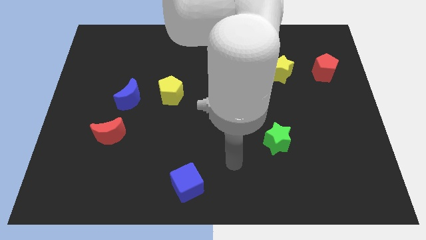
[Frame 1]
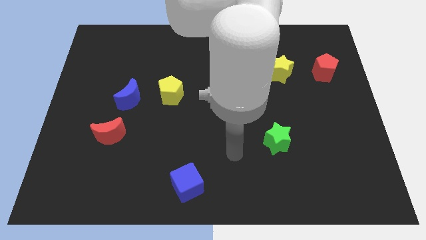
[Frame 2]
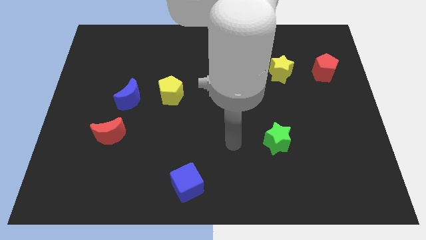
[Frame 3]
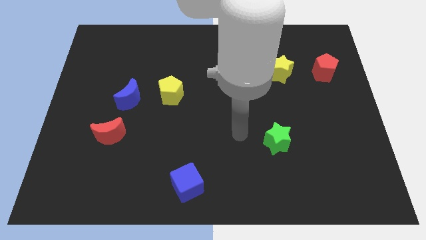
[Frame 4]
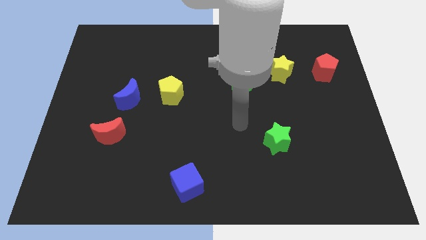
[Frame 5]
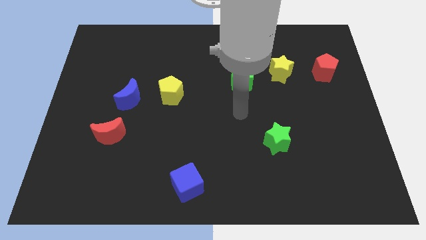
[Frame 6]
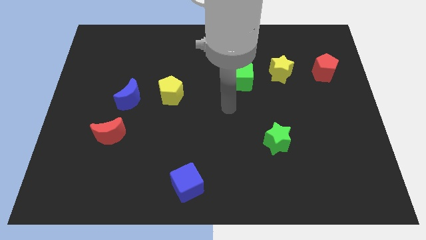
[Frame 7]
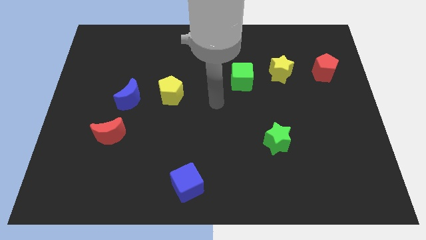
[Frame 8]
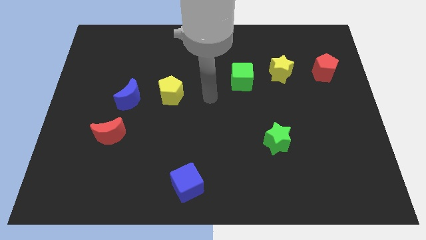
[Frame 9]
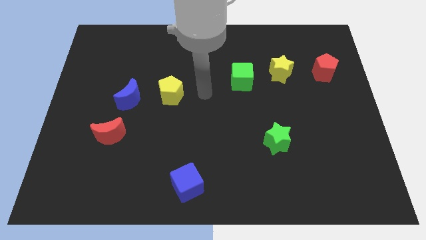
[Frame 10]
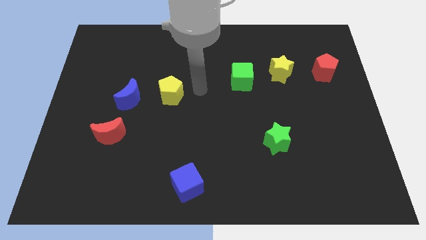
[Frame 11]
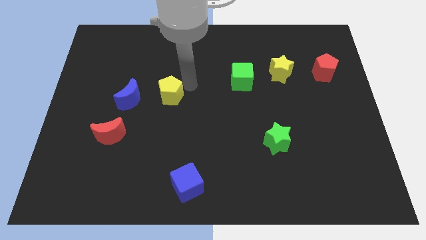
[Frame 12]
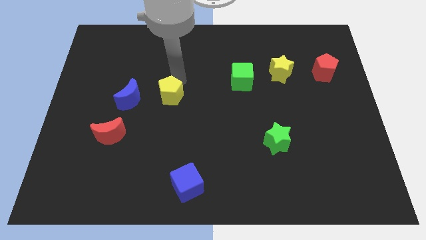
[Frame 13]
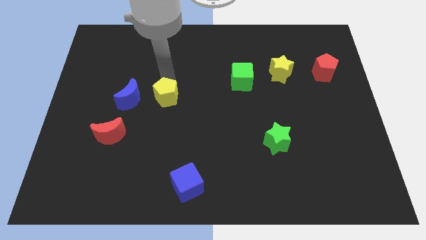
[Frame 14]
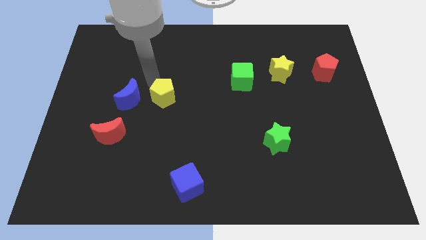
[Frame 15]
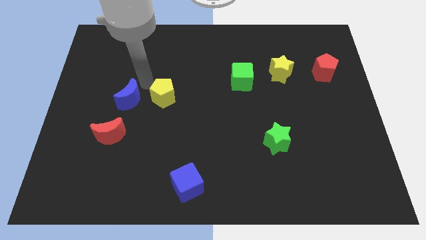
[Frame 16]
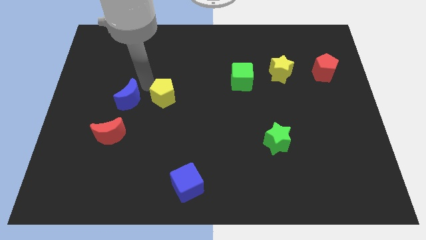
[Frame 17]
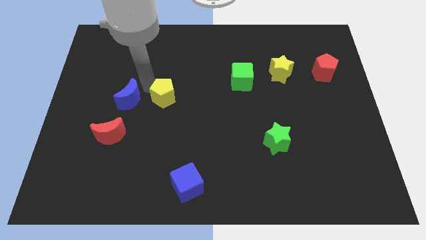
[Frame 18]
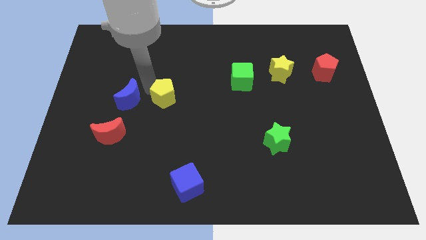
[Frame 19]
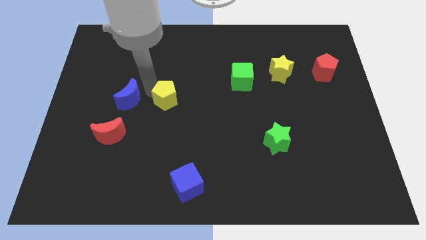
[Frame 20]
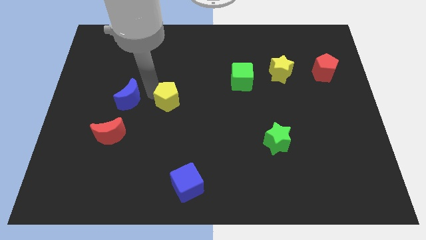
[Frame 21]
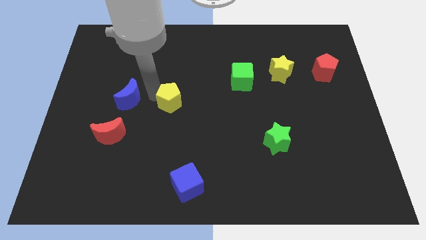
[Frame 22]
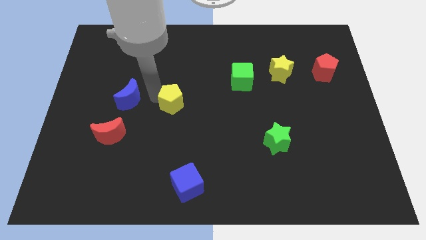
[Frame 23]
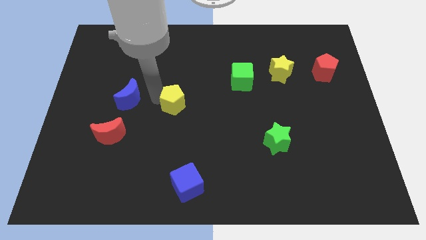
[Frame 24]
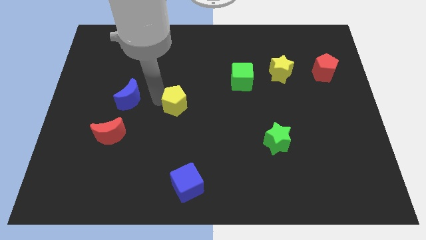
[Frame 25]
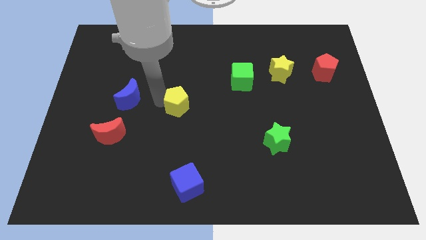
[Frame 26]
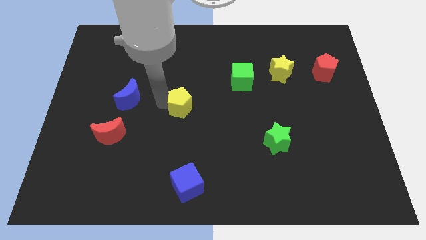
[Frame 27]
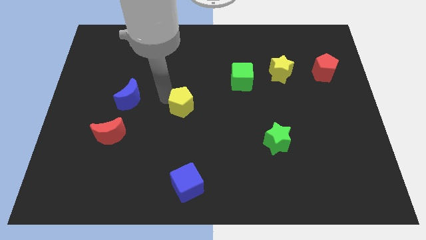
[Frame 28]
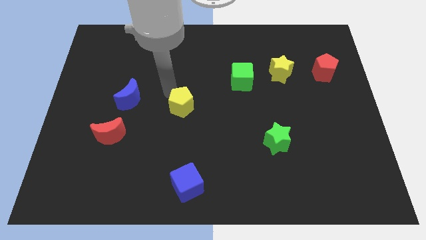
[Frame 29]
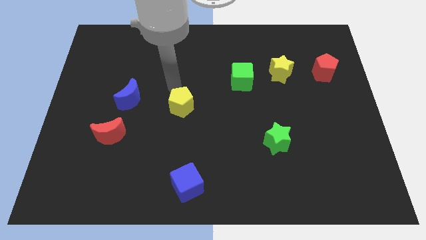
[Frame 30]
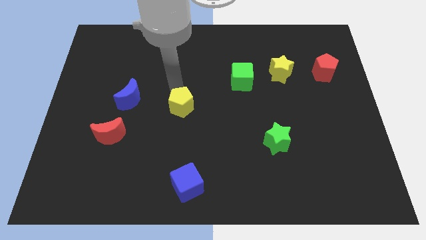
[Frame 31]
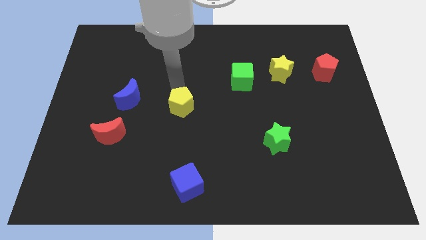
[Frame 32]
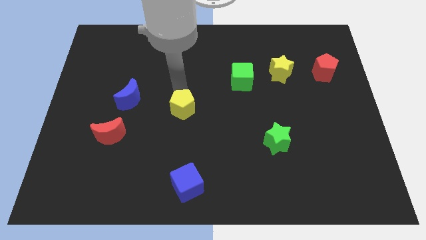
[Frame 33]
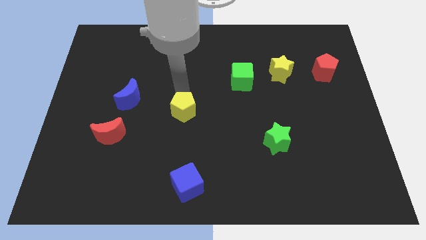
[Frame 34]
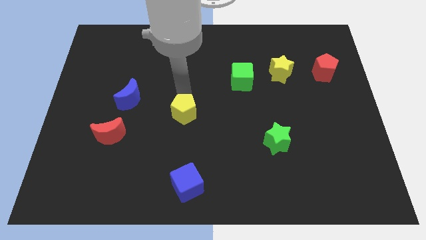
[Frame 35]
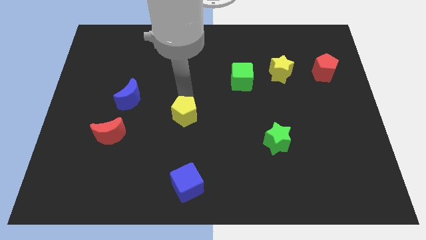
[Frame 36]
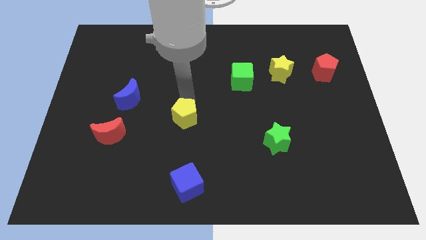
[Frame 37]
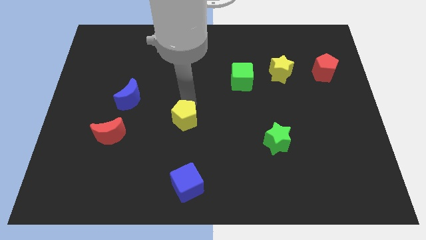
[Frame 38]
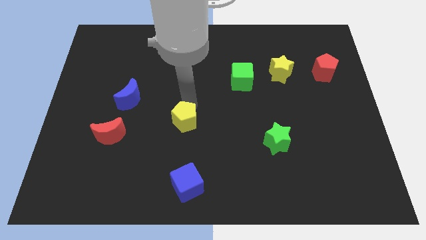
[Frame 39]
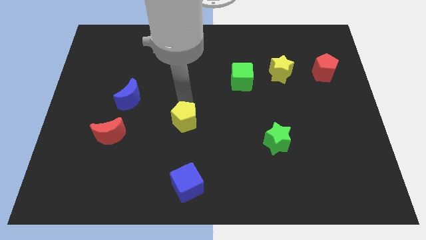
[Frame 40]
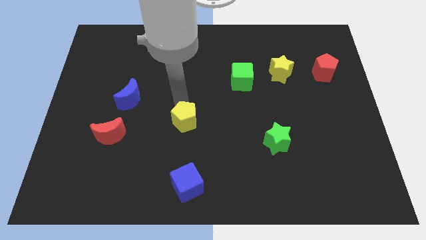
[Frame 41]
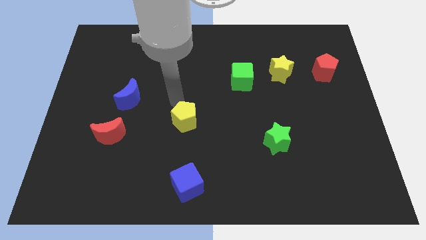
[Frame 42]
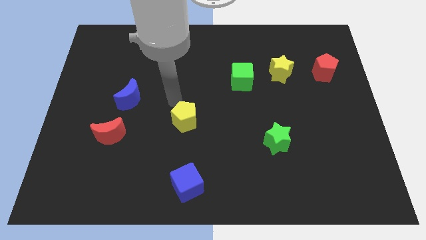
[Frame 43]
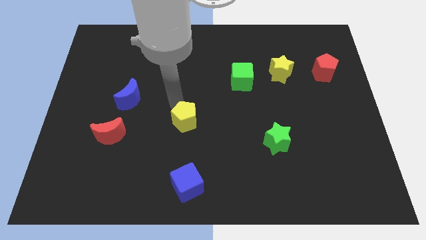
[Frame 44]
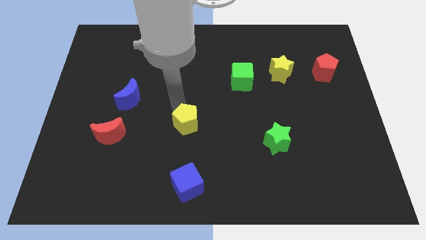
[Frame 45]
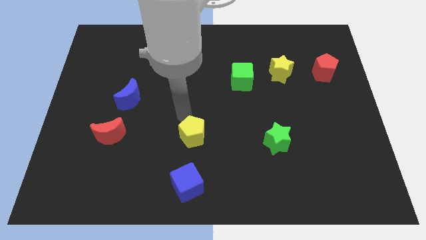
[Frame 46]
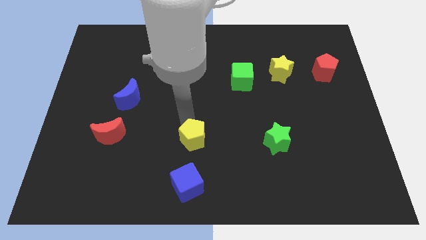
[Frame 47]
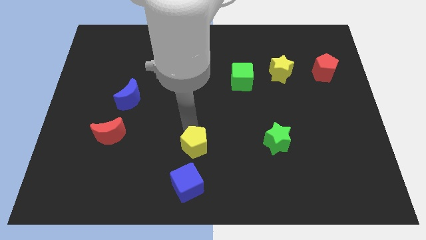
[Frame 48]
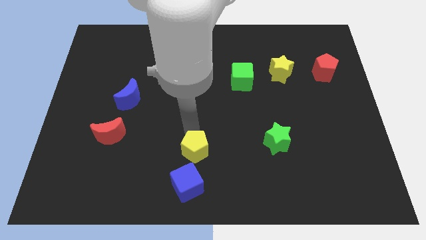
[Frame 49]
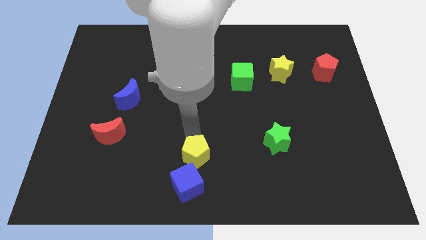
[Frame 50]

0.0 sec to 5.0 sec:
put the yellow pentagon to the bottom

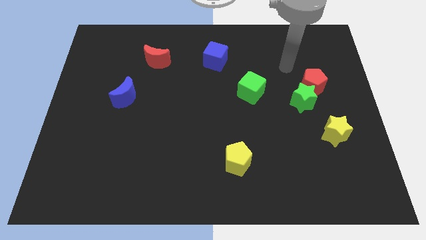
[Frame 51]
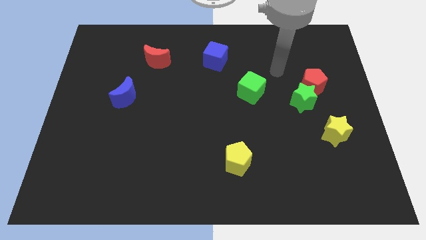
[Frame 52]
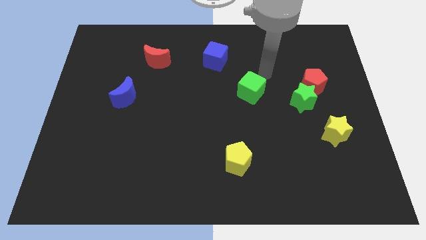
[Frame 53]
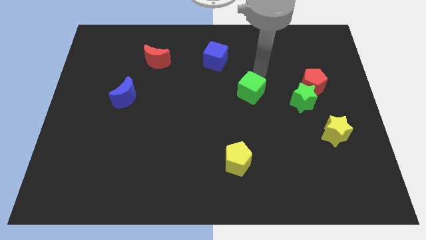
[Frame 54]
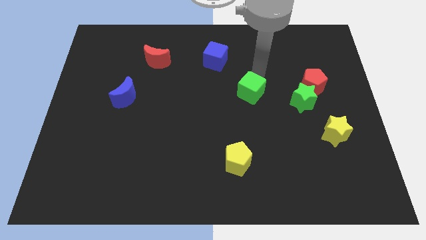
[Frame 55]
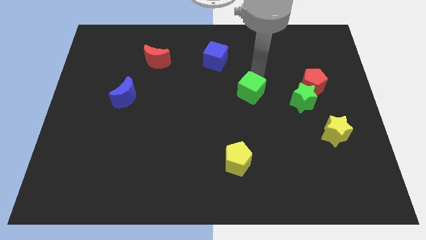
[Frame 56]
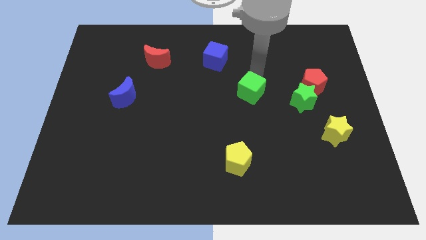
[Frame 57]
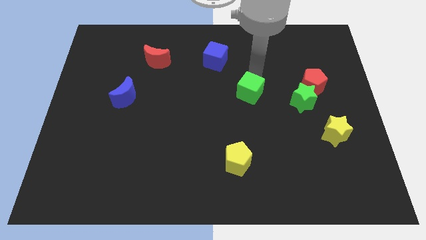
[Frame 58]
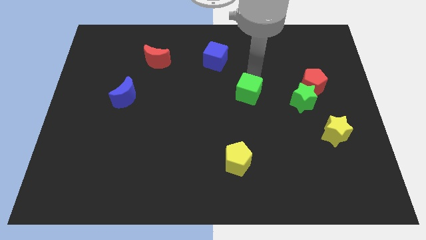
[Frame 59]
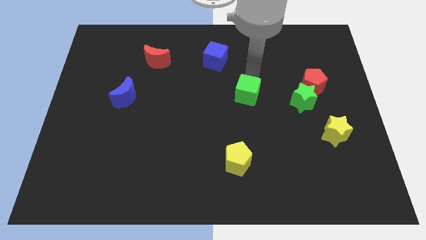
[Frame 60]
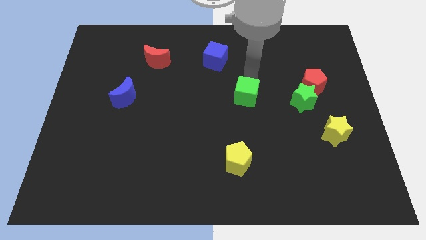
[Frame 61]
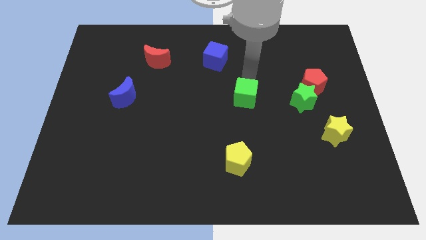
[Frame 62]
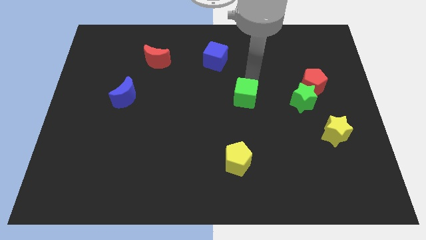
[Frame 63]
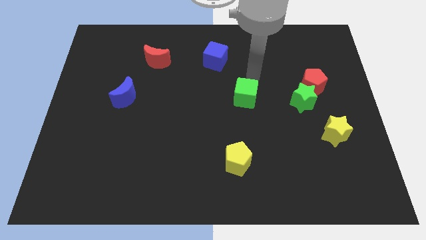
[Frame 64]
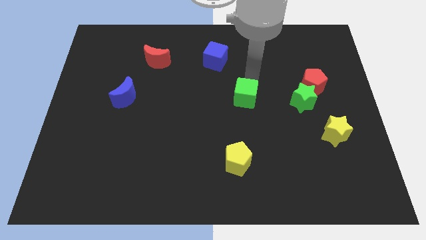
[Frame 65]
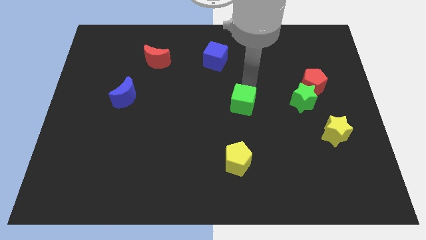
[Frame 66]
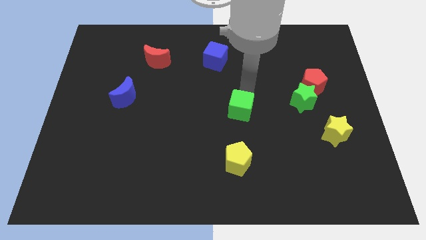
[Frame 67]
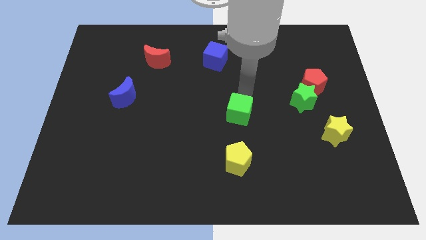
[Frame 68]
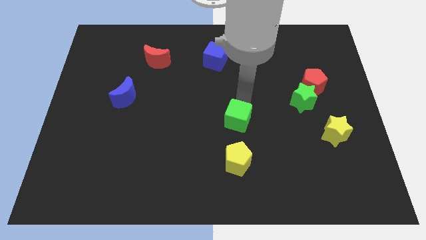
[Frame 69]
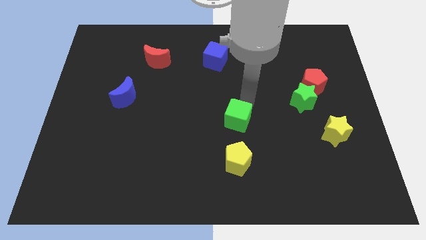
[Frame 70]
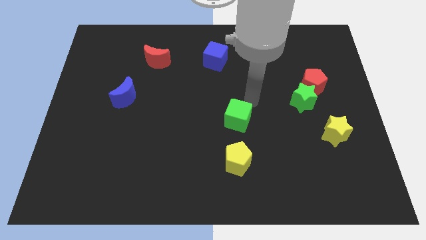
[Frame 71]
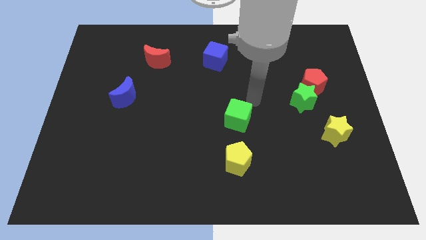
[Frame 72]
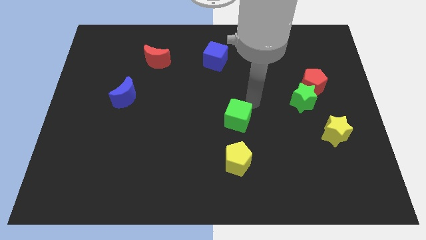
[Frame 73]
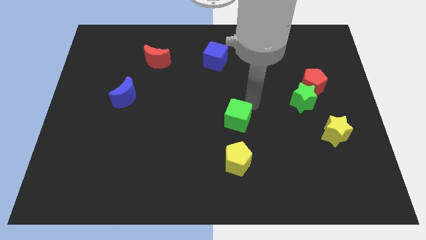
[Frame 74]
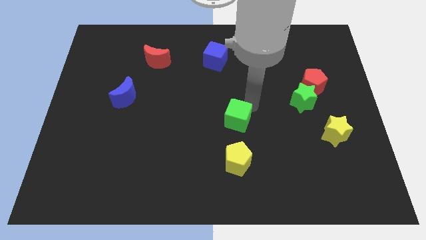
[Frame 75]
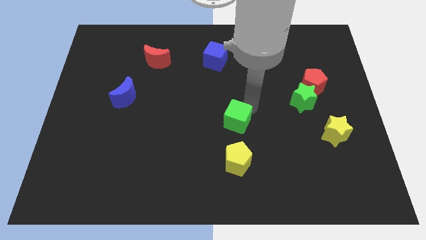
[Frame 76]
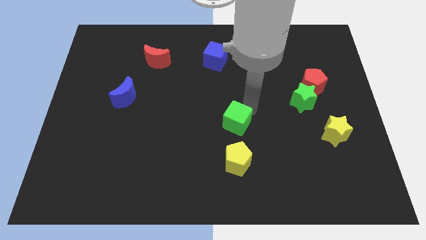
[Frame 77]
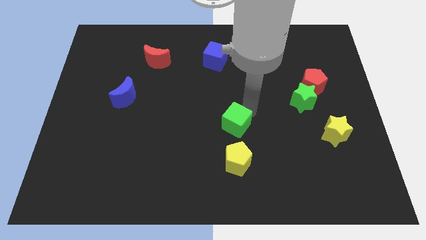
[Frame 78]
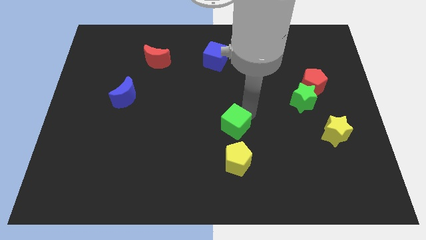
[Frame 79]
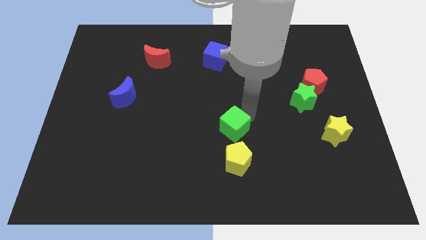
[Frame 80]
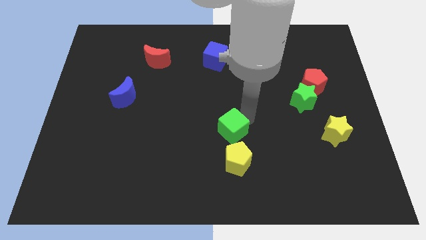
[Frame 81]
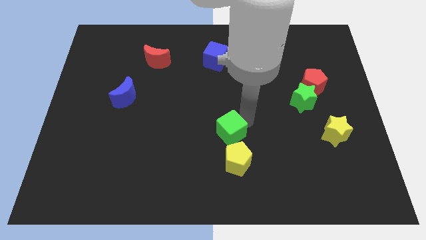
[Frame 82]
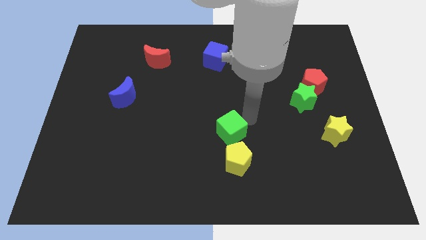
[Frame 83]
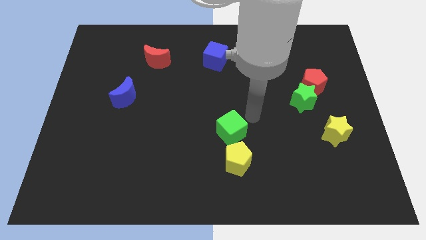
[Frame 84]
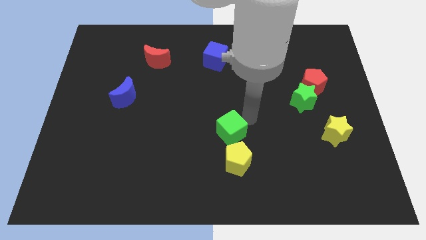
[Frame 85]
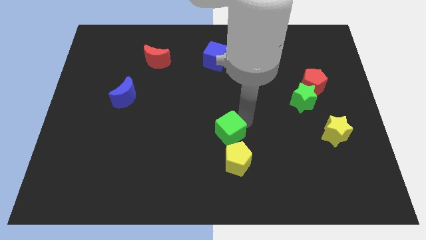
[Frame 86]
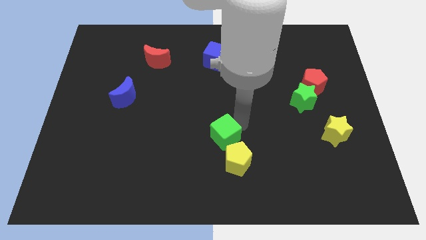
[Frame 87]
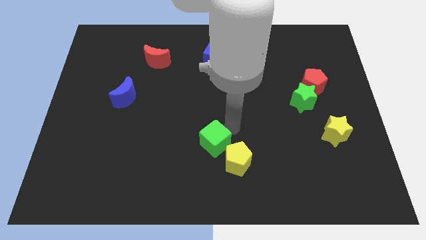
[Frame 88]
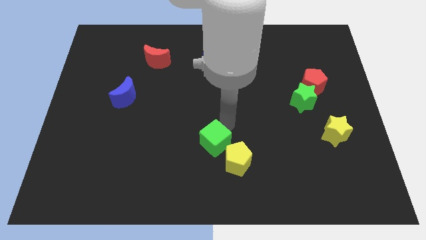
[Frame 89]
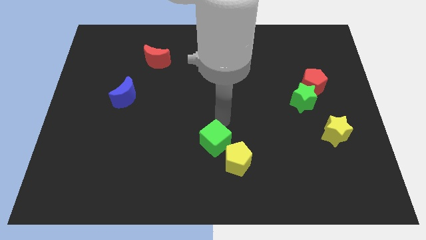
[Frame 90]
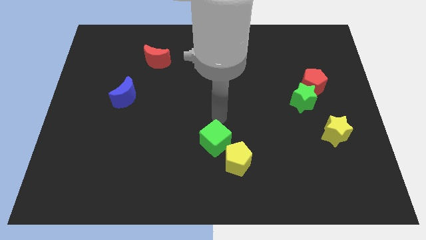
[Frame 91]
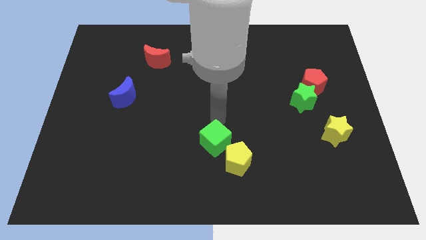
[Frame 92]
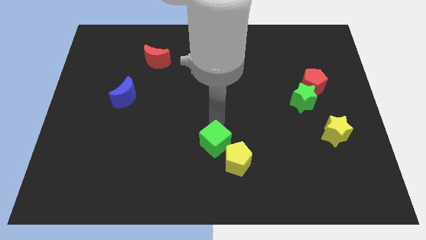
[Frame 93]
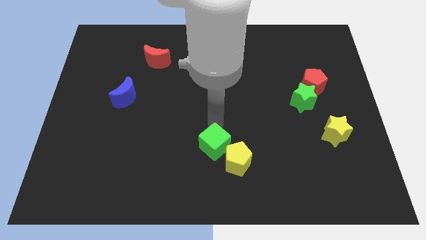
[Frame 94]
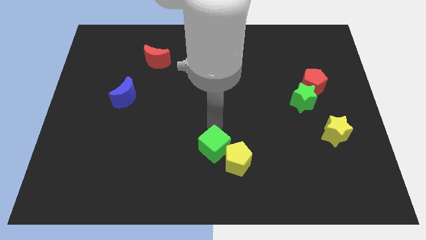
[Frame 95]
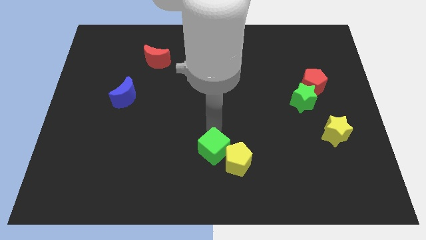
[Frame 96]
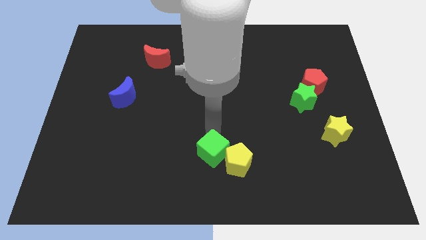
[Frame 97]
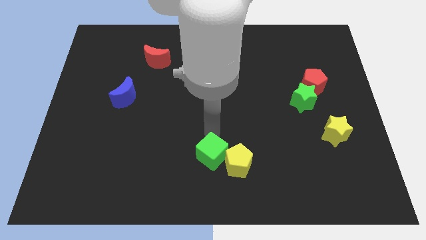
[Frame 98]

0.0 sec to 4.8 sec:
push the green cube to the bottom
